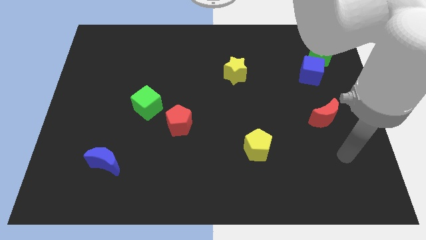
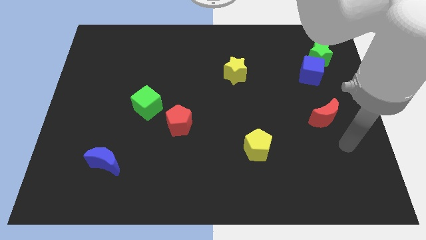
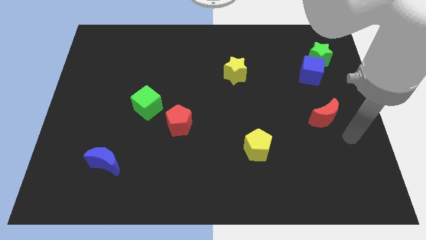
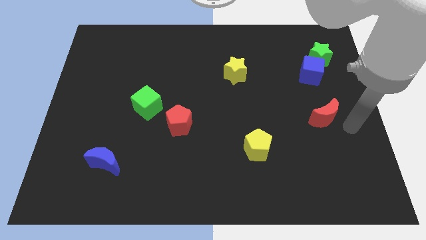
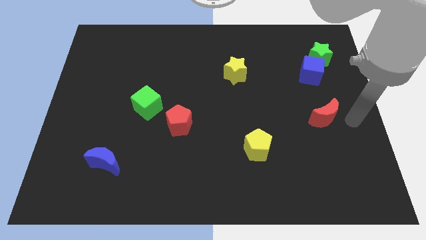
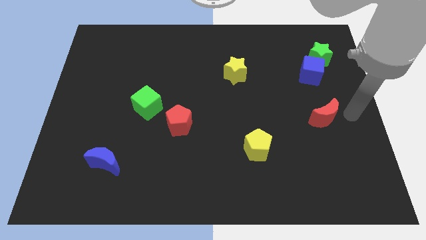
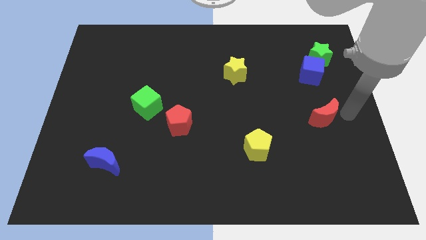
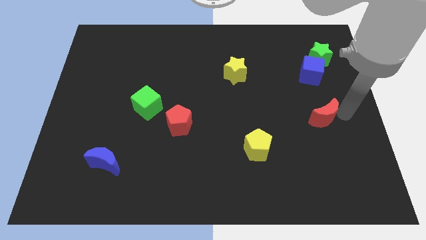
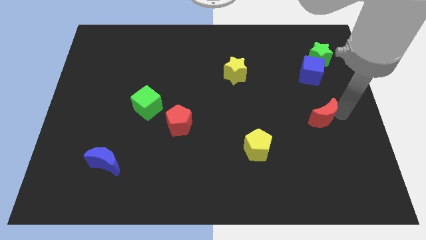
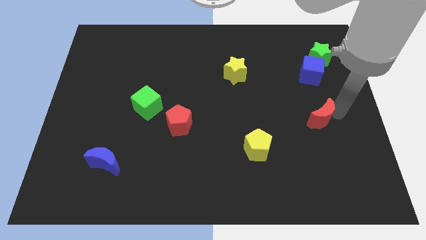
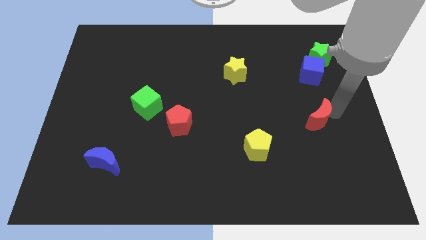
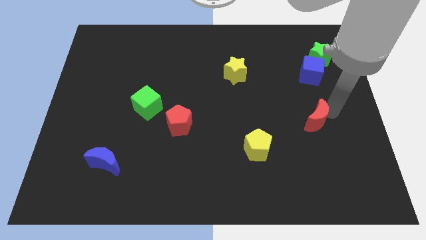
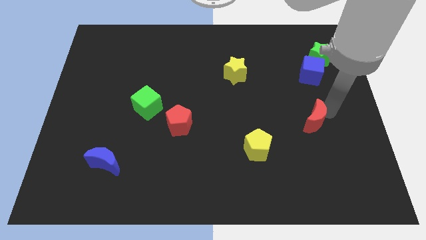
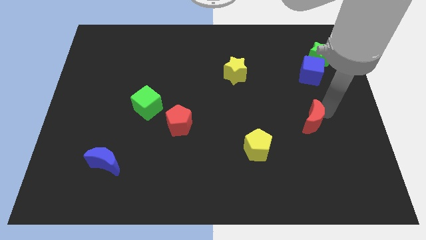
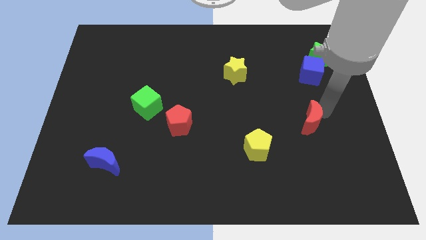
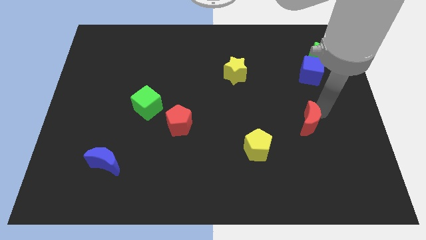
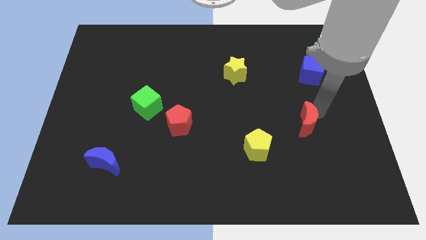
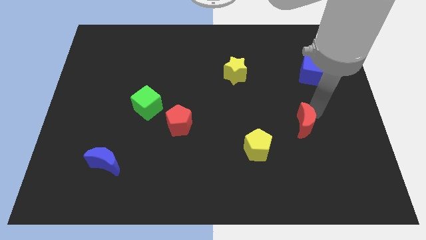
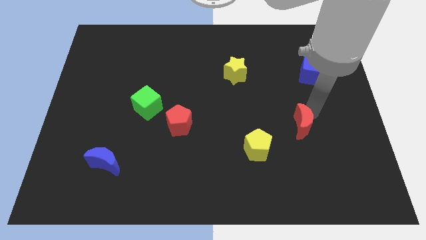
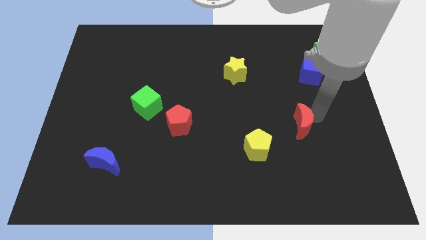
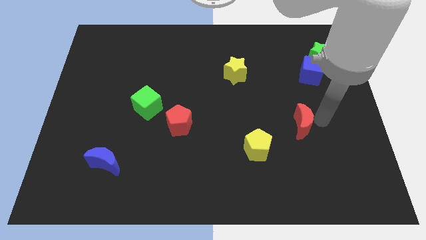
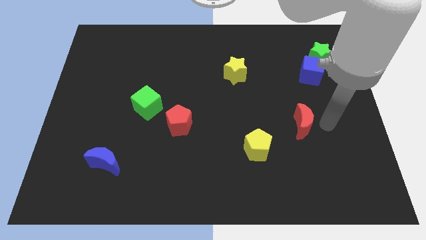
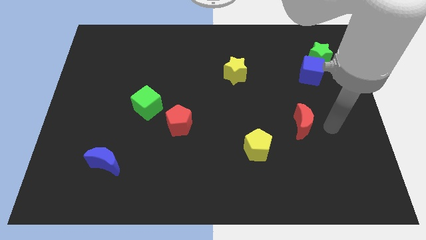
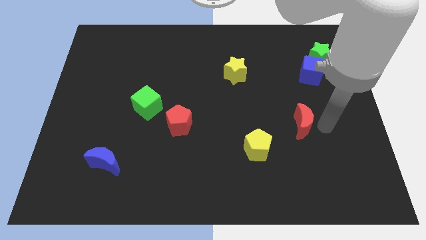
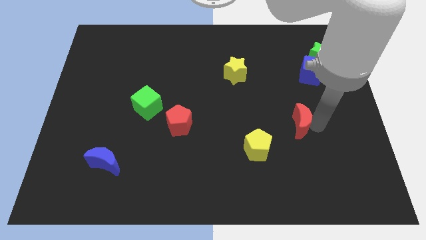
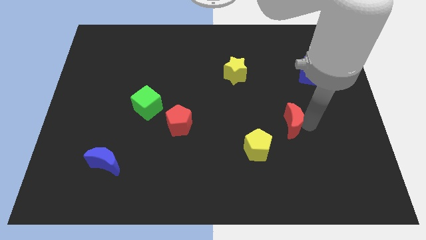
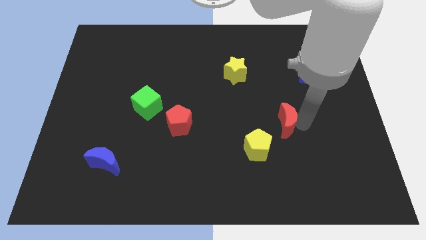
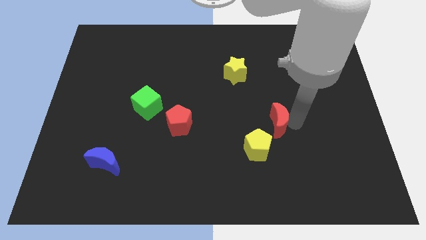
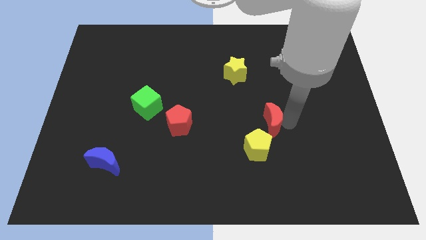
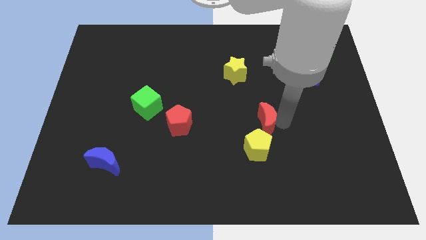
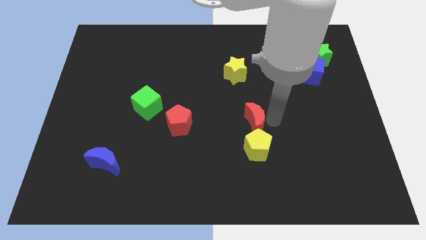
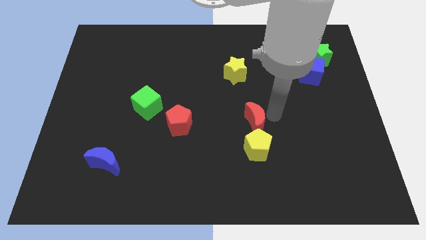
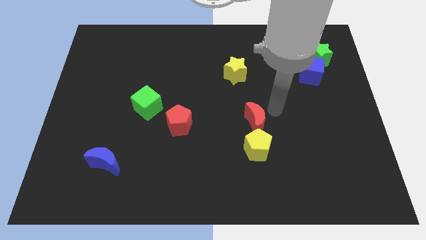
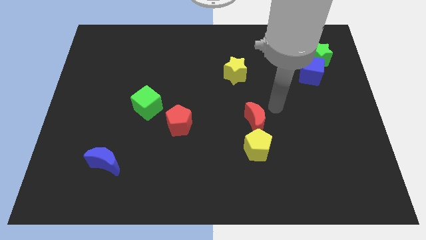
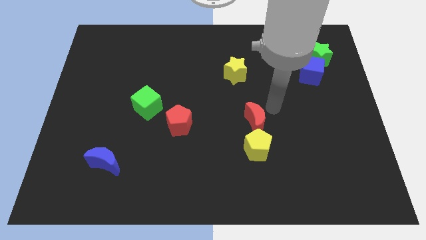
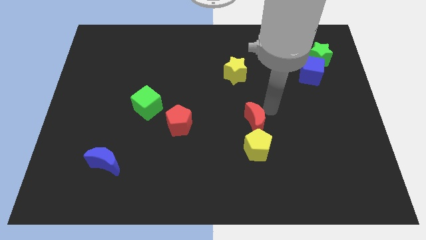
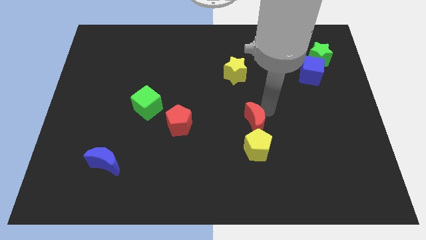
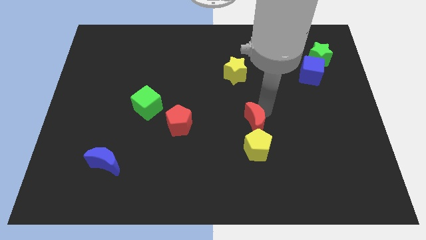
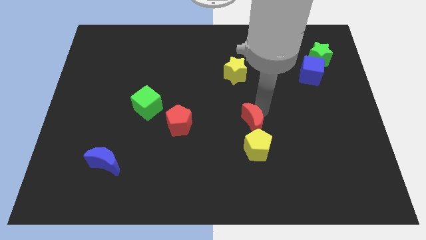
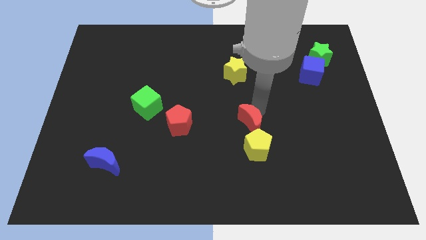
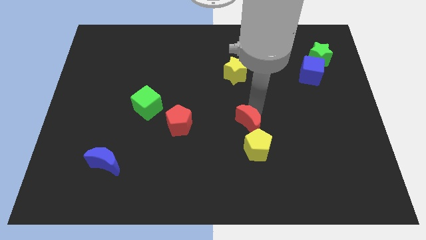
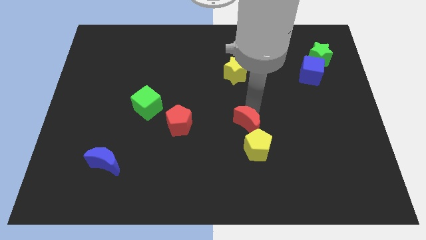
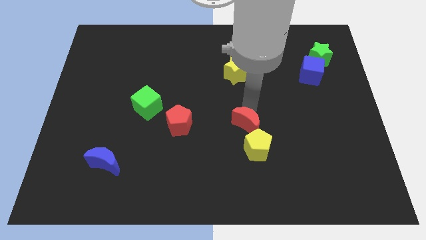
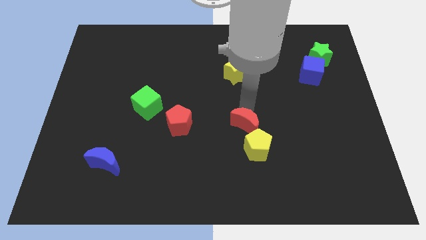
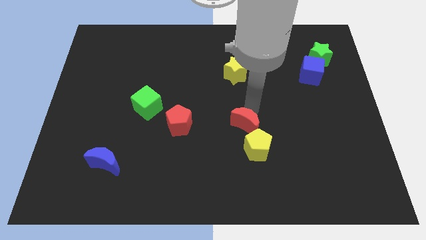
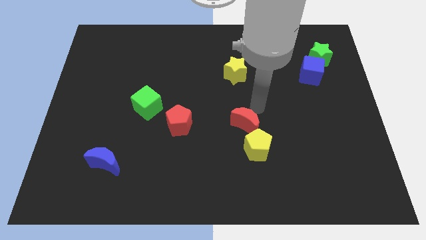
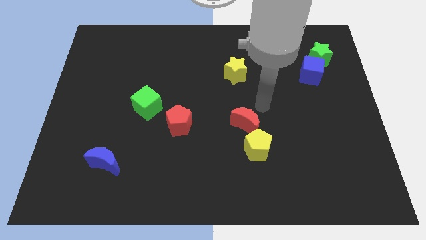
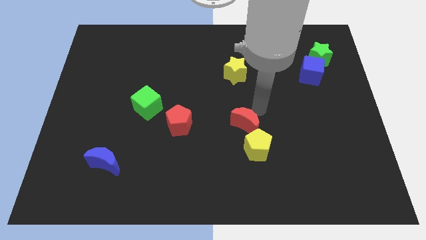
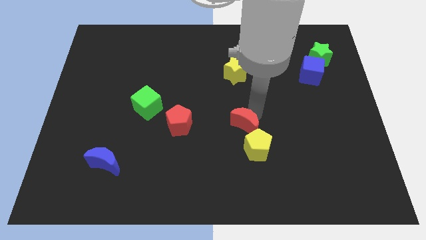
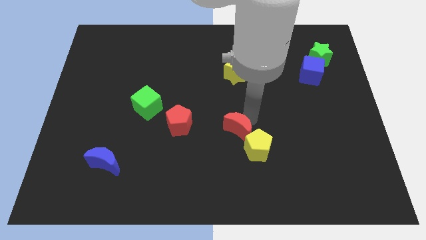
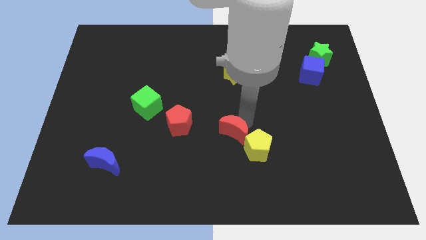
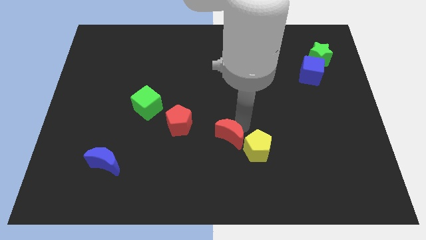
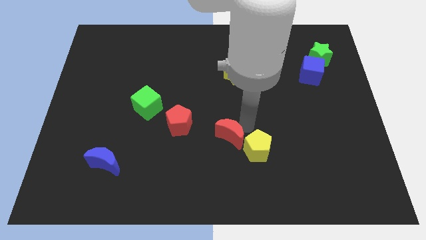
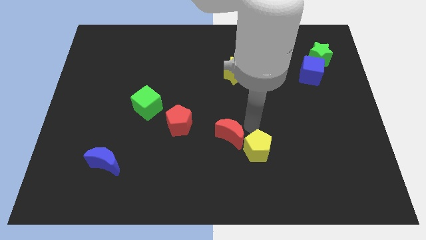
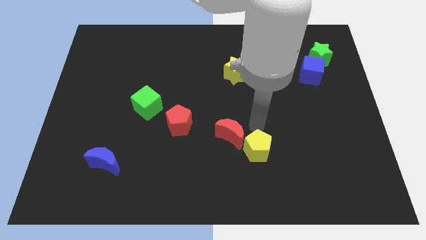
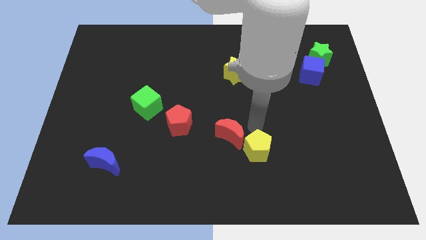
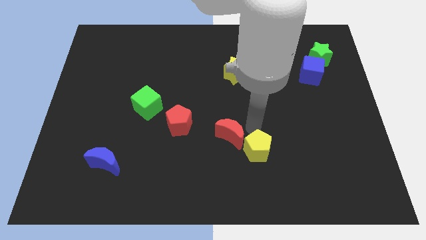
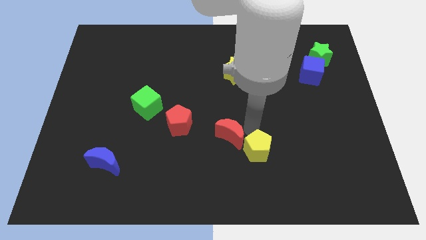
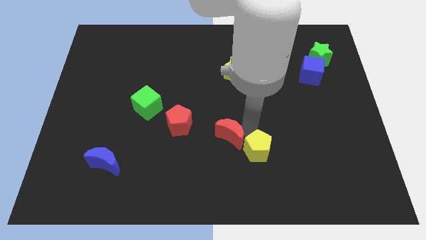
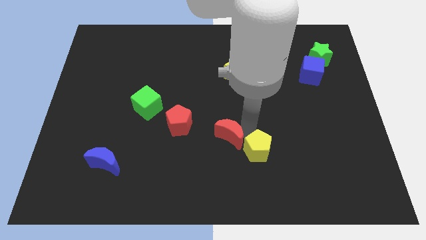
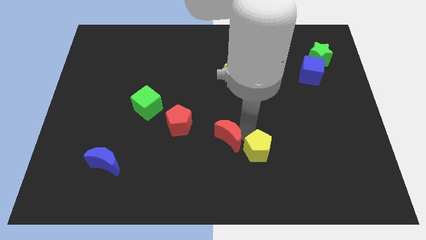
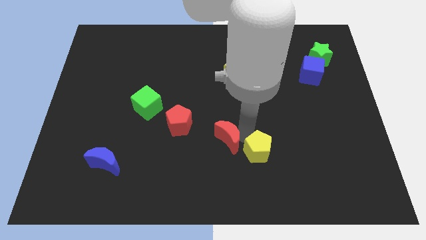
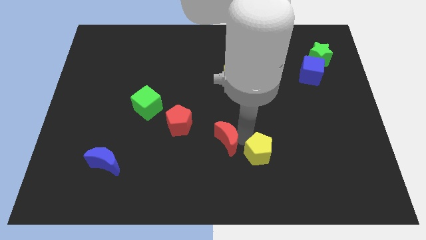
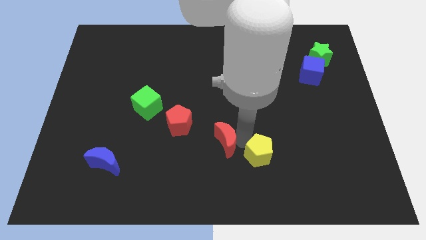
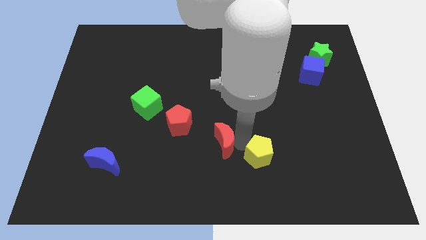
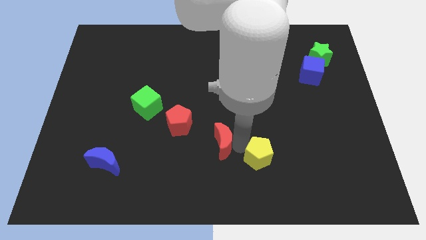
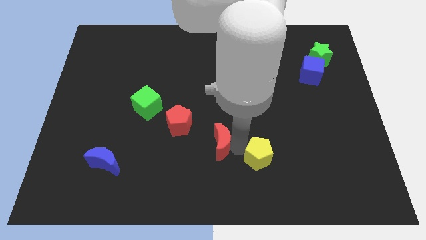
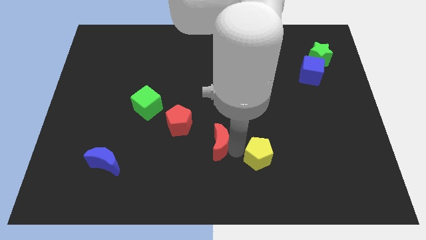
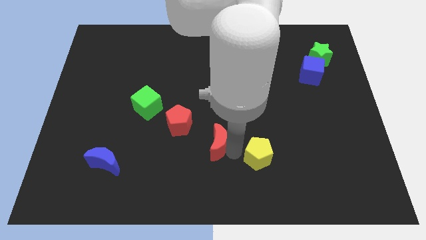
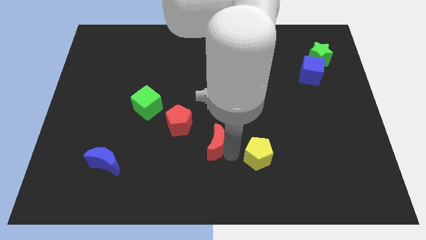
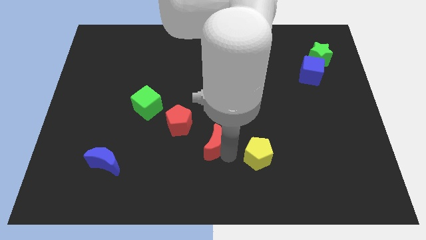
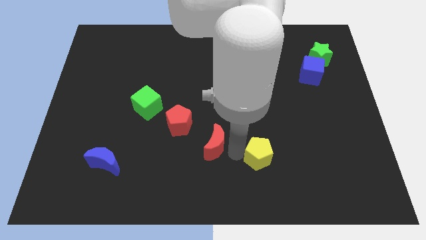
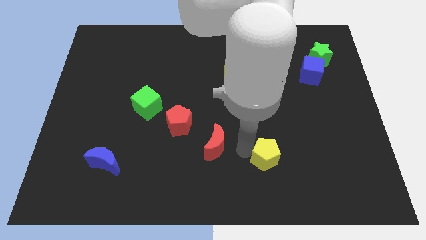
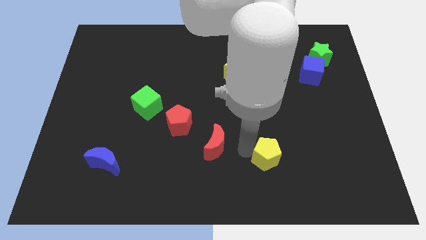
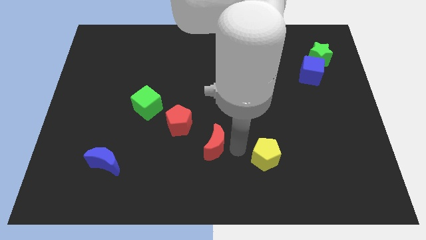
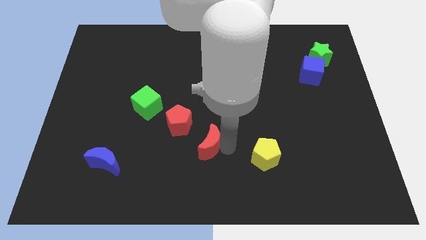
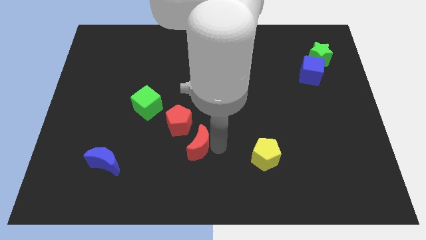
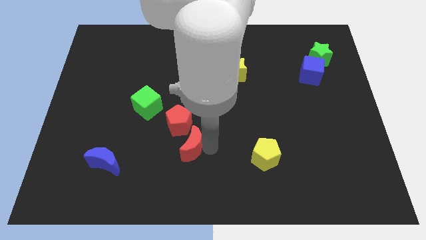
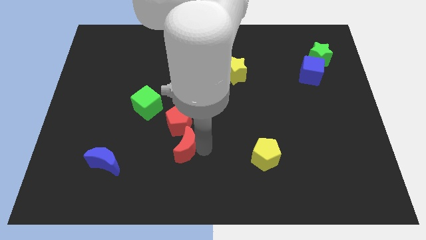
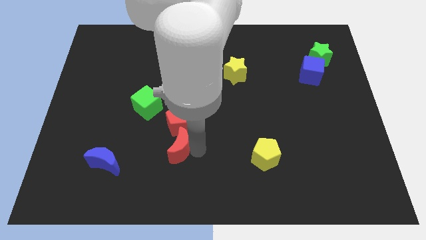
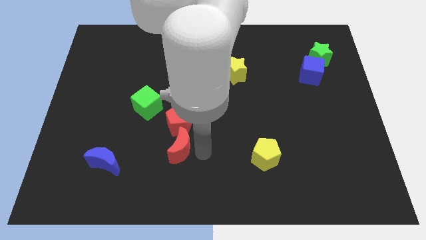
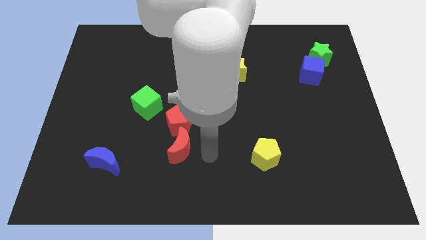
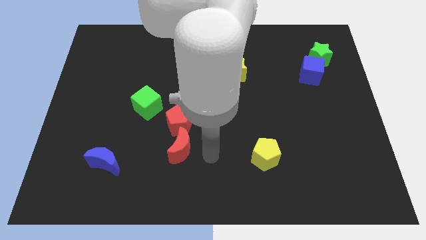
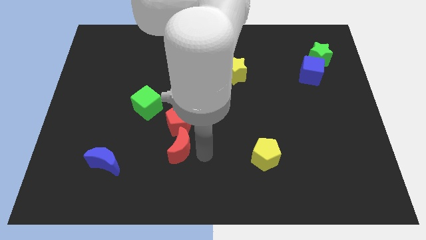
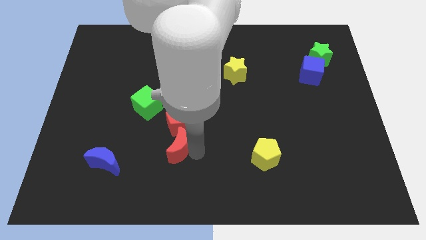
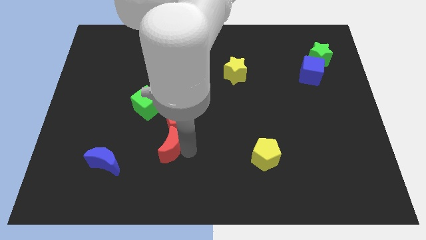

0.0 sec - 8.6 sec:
put the red moon to the bottom left side of the red pentagon
